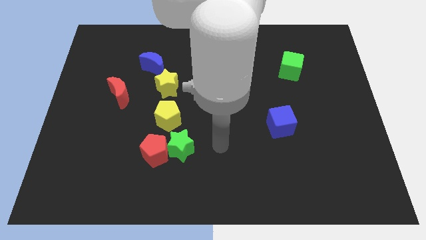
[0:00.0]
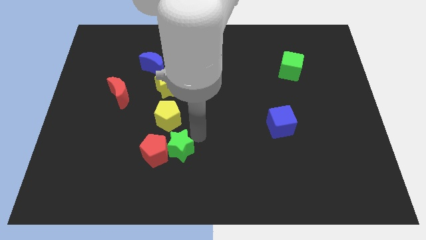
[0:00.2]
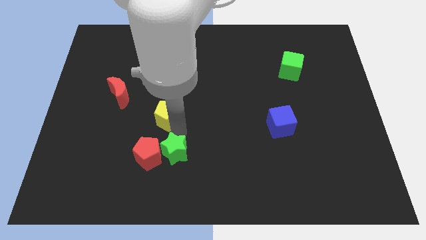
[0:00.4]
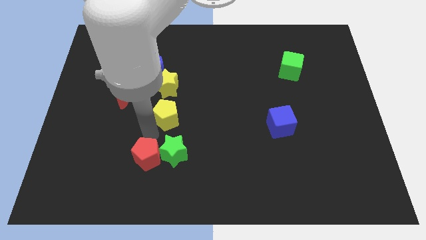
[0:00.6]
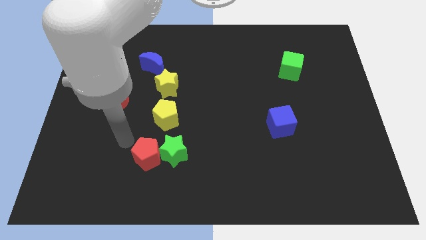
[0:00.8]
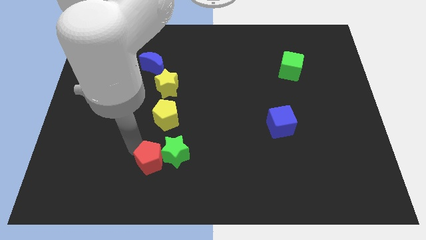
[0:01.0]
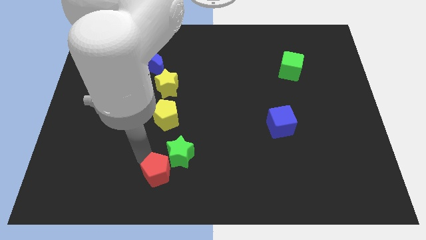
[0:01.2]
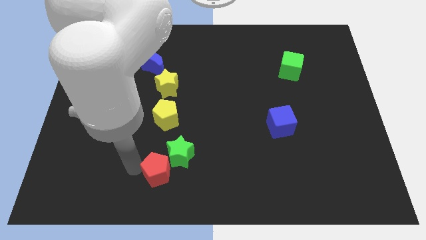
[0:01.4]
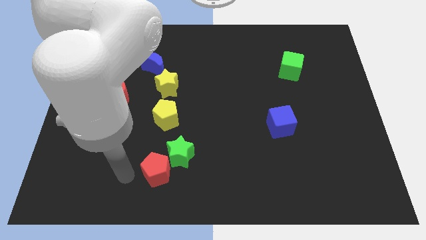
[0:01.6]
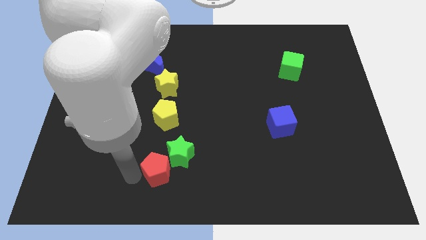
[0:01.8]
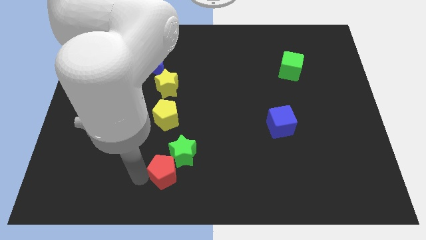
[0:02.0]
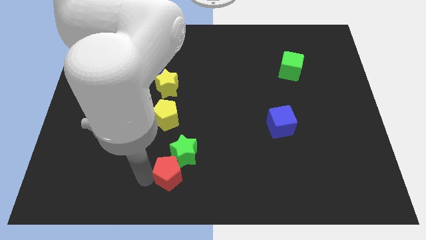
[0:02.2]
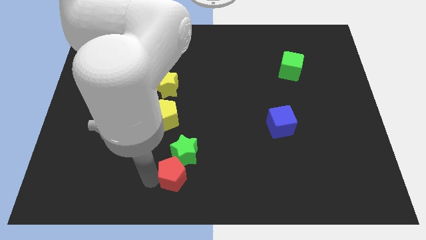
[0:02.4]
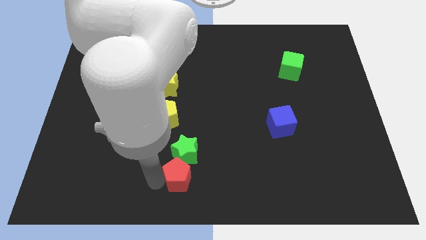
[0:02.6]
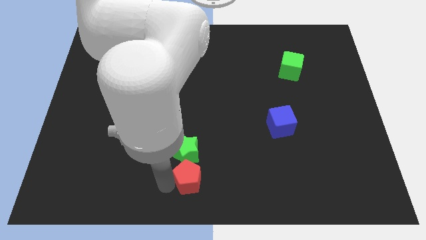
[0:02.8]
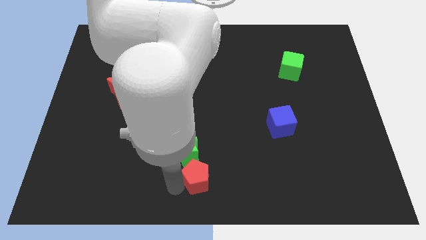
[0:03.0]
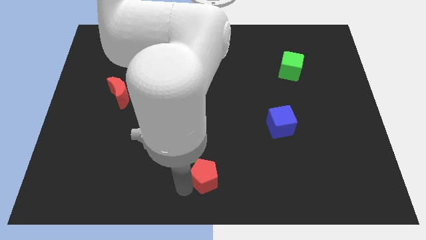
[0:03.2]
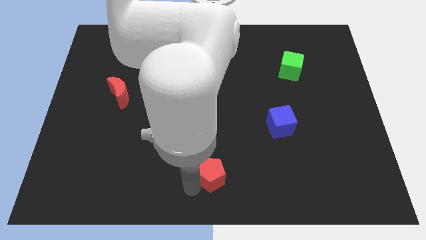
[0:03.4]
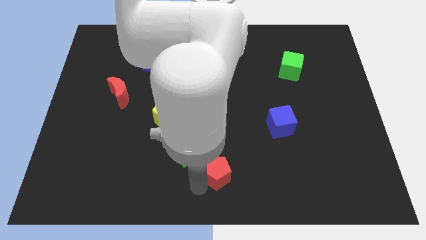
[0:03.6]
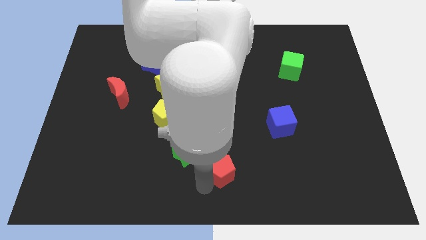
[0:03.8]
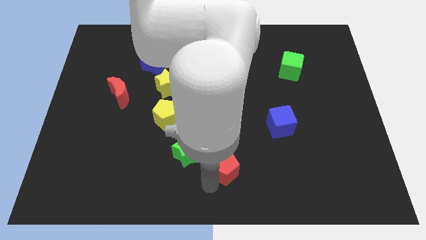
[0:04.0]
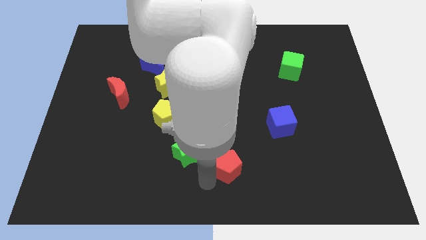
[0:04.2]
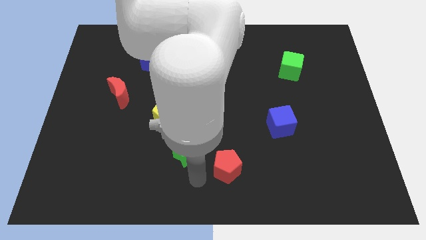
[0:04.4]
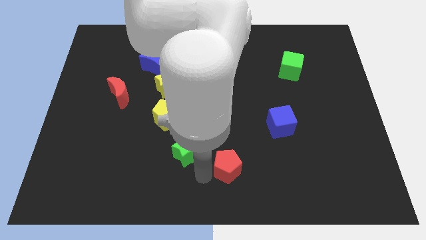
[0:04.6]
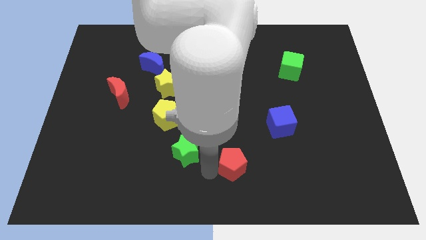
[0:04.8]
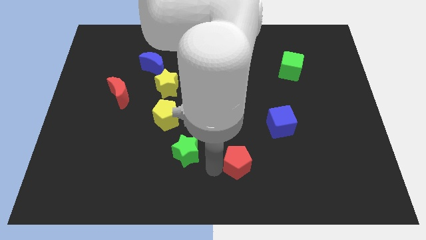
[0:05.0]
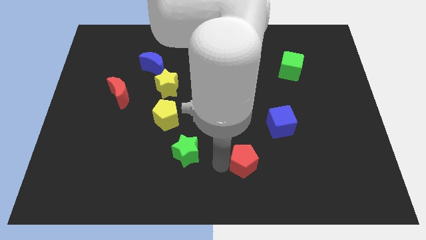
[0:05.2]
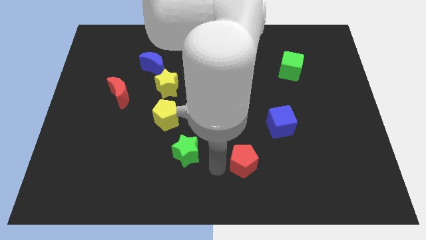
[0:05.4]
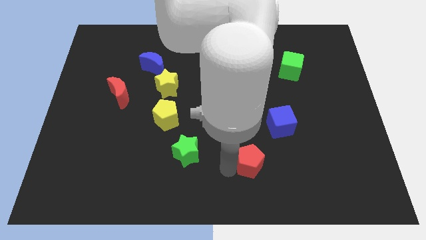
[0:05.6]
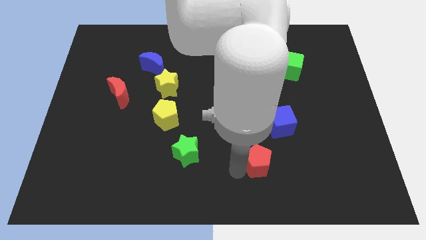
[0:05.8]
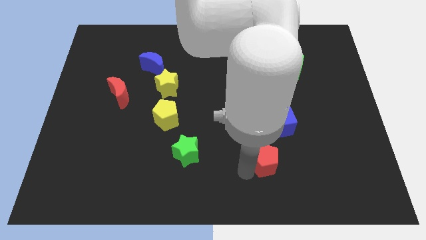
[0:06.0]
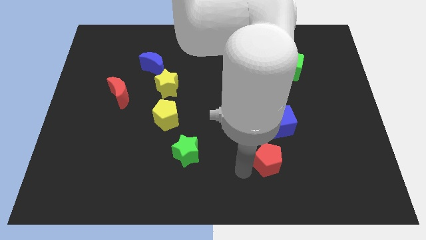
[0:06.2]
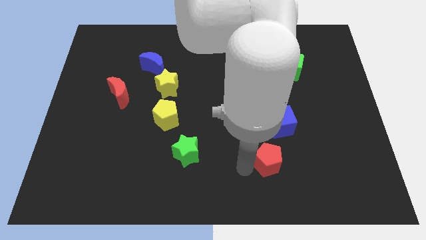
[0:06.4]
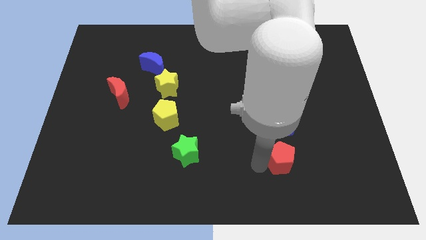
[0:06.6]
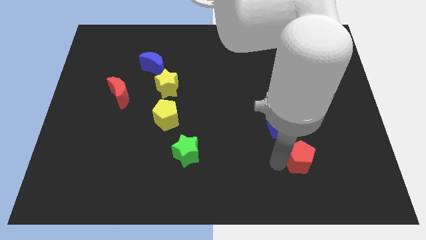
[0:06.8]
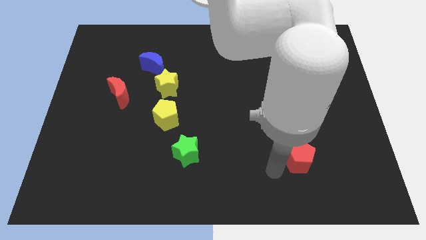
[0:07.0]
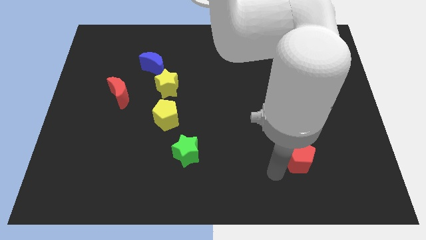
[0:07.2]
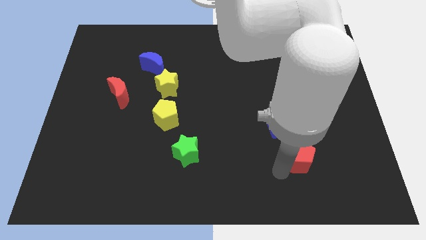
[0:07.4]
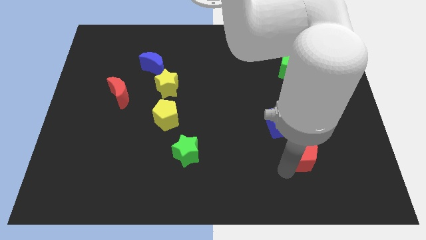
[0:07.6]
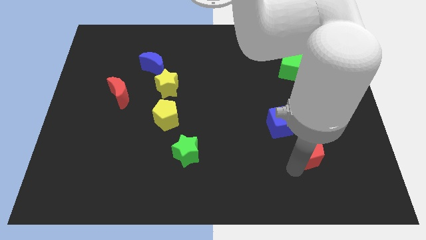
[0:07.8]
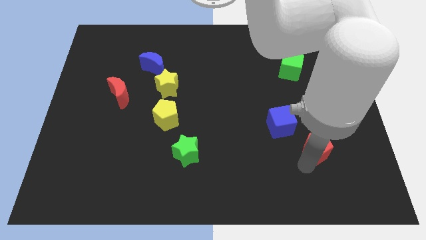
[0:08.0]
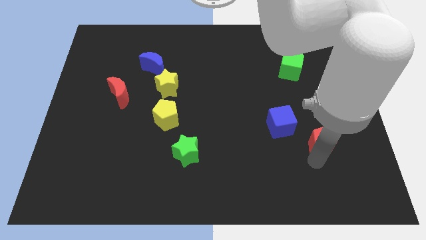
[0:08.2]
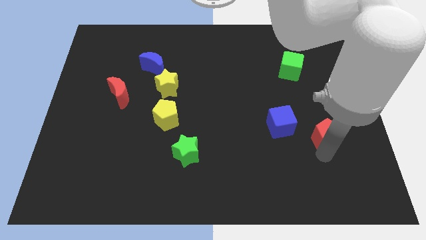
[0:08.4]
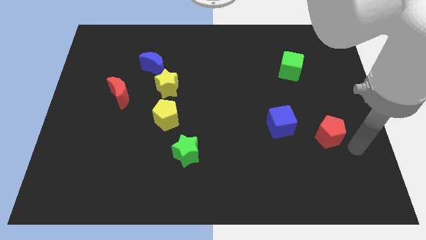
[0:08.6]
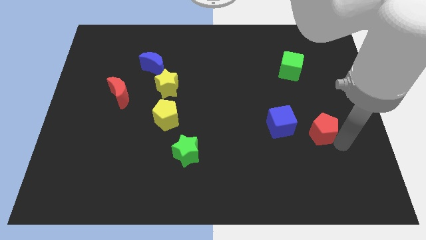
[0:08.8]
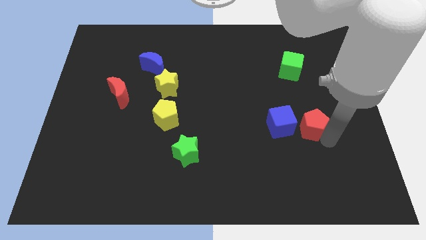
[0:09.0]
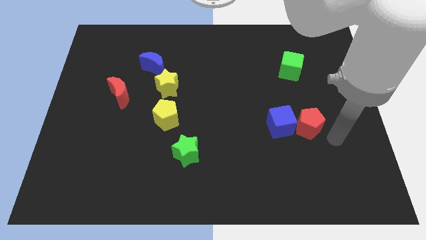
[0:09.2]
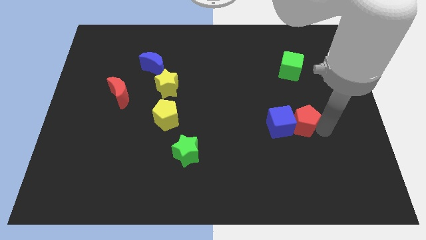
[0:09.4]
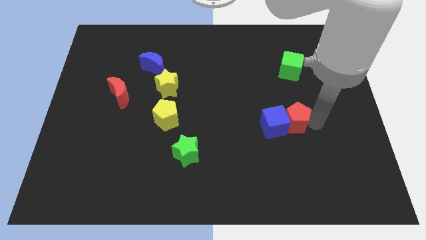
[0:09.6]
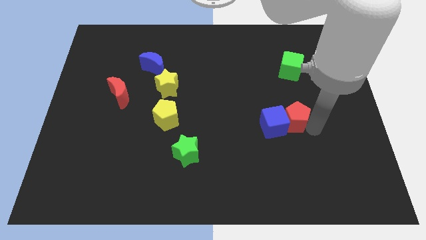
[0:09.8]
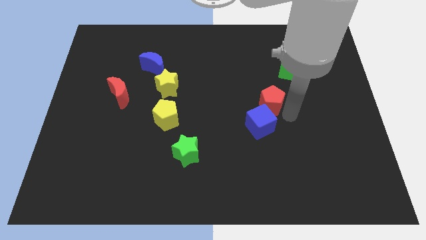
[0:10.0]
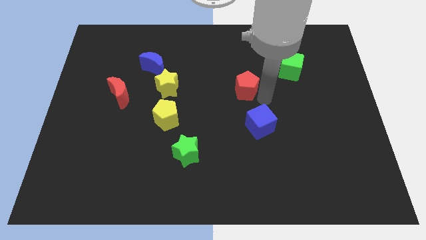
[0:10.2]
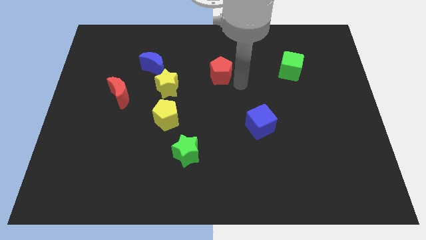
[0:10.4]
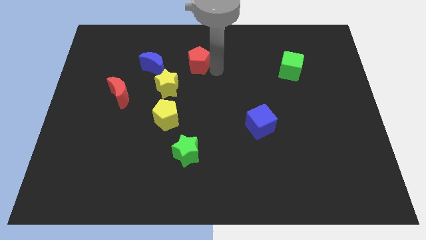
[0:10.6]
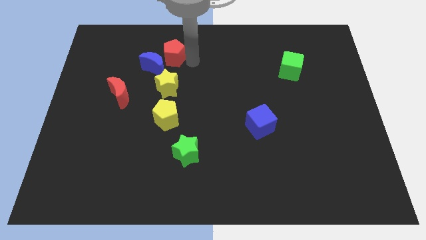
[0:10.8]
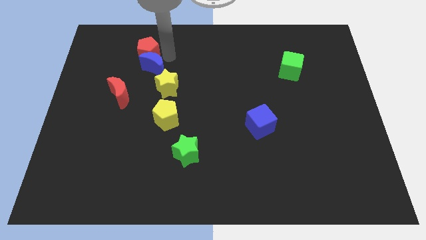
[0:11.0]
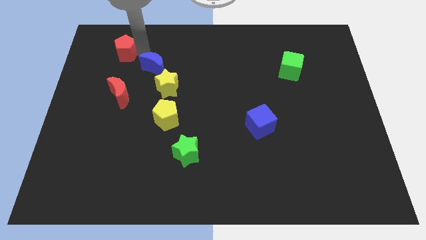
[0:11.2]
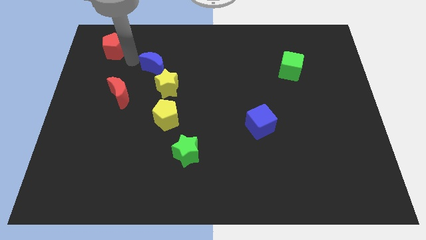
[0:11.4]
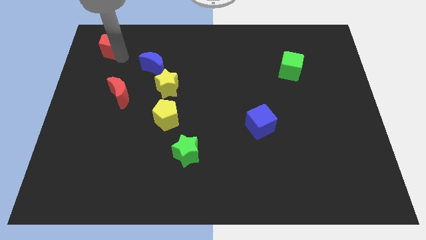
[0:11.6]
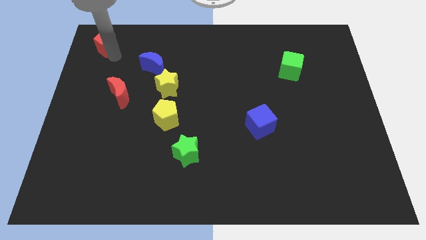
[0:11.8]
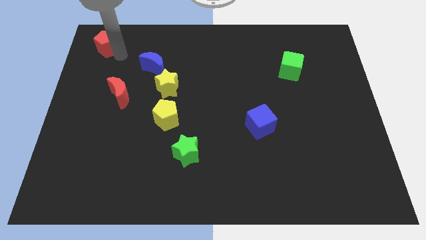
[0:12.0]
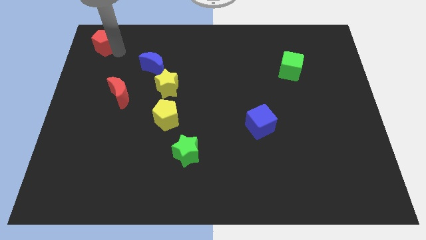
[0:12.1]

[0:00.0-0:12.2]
slide the red pentagon to the top left of the board

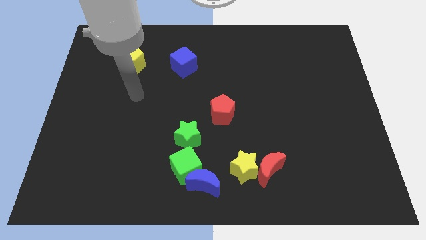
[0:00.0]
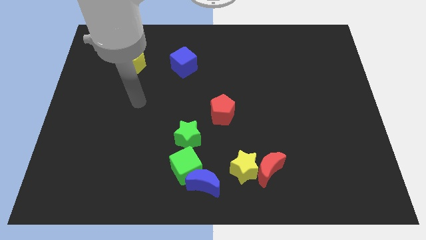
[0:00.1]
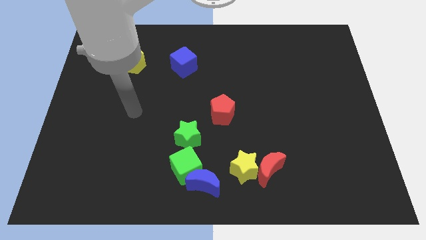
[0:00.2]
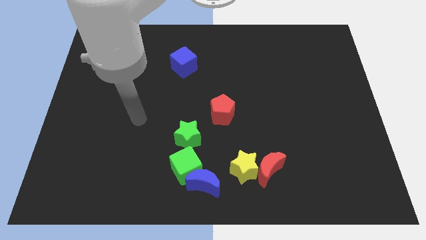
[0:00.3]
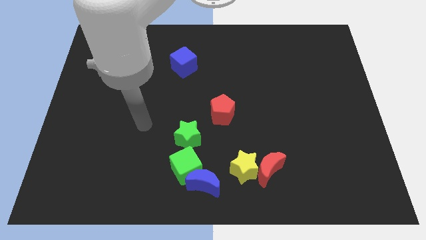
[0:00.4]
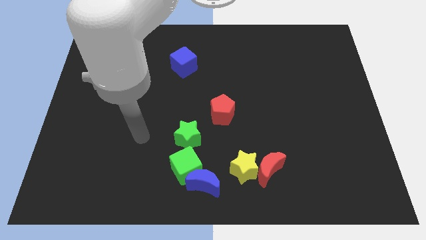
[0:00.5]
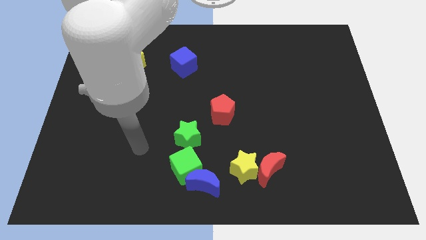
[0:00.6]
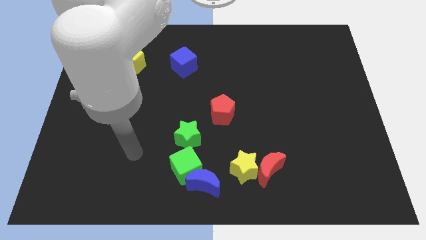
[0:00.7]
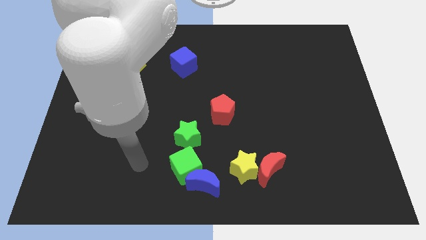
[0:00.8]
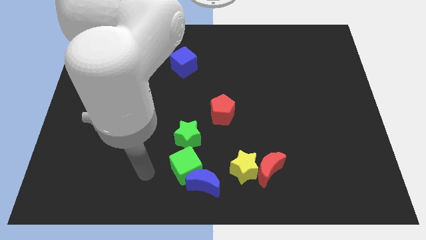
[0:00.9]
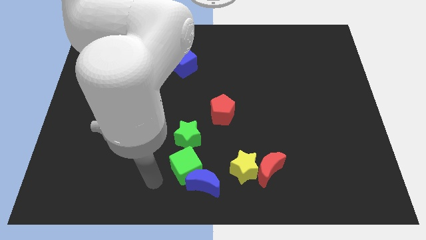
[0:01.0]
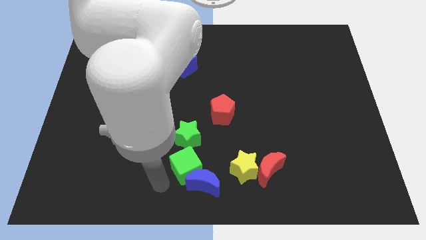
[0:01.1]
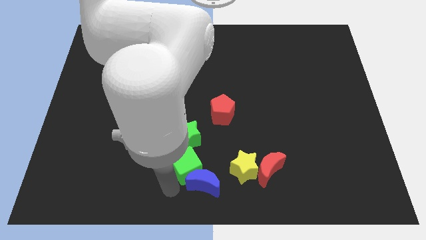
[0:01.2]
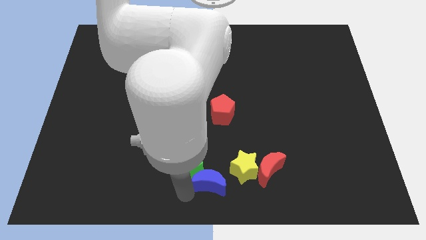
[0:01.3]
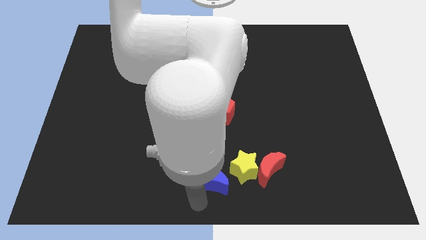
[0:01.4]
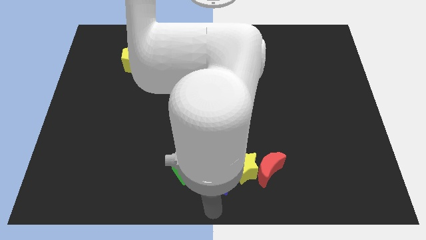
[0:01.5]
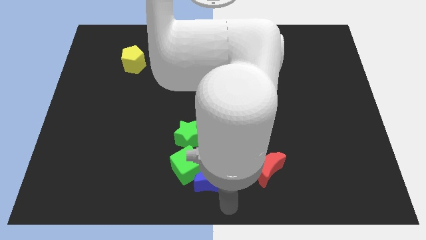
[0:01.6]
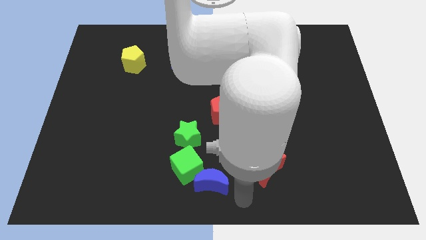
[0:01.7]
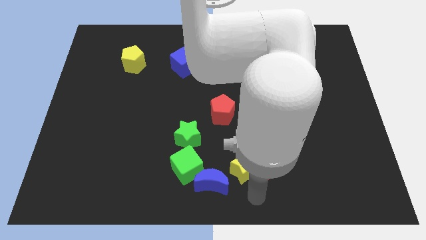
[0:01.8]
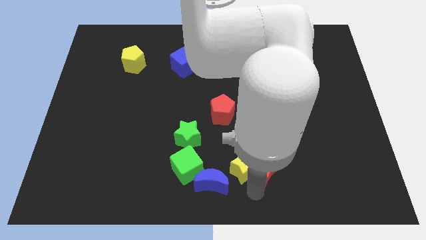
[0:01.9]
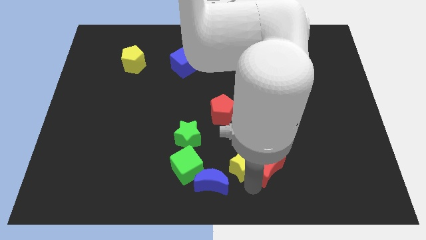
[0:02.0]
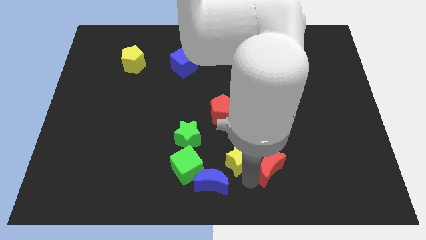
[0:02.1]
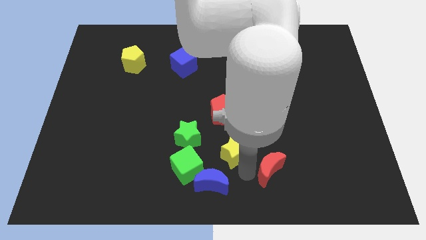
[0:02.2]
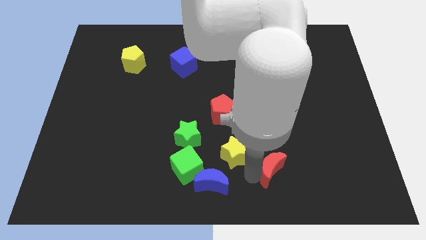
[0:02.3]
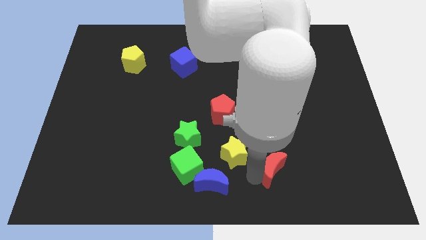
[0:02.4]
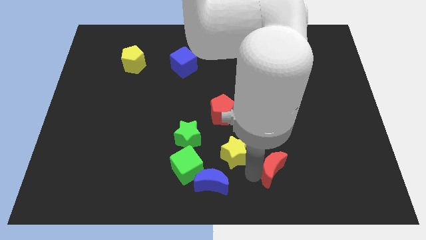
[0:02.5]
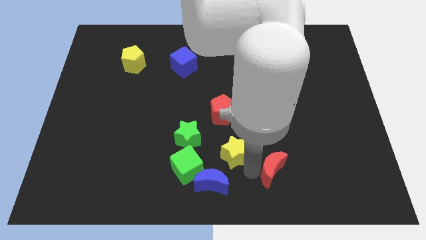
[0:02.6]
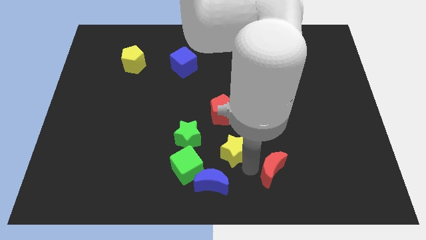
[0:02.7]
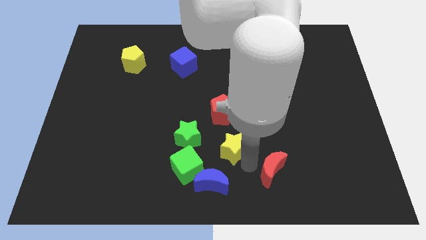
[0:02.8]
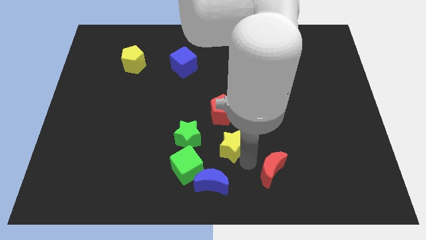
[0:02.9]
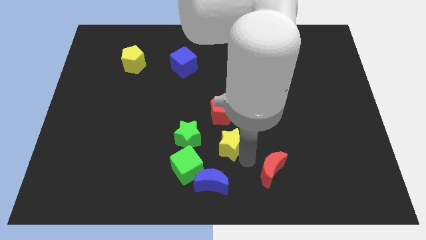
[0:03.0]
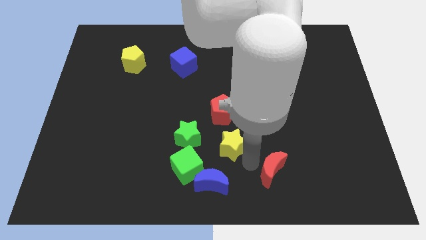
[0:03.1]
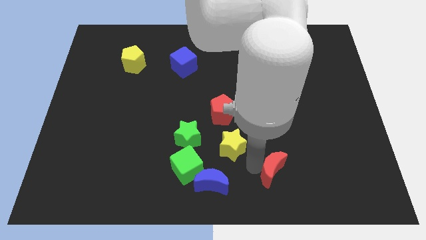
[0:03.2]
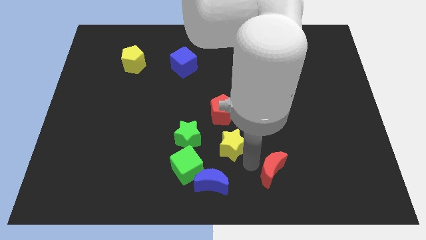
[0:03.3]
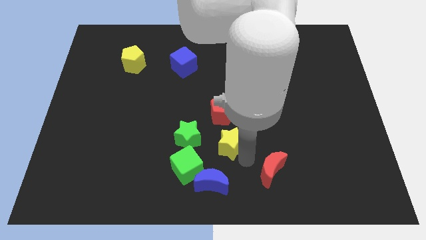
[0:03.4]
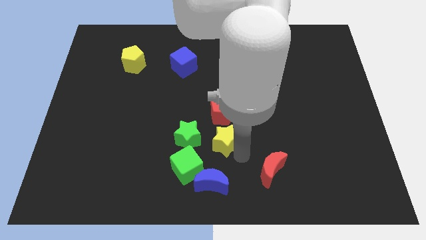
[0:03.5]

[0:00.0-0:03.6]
push the yellow star to the middle
